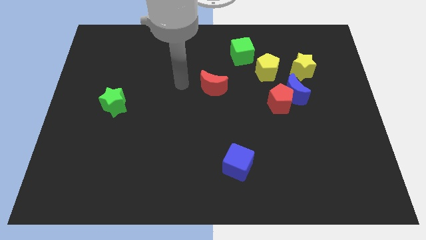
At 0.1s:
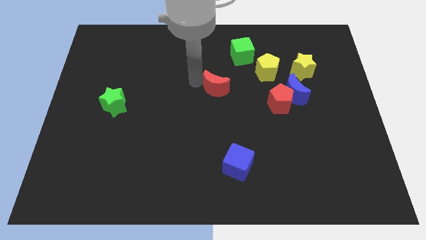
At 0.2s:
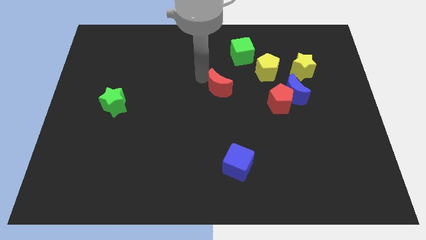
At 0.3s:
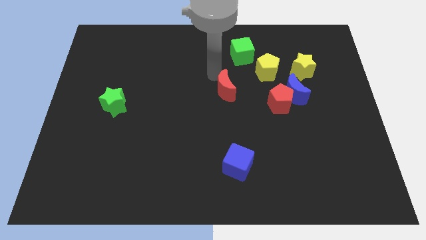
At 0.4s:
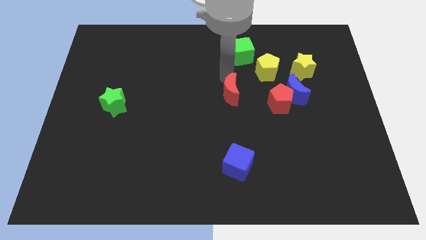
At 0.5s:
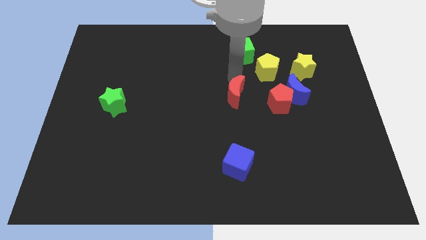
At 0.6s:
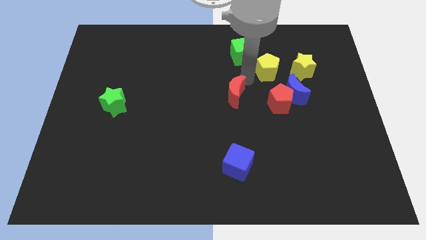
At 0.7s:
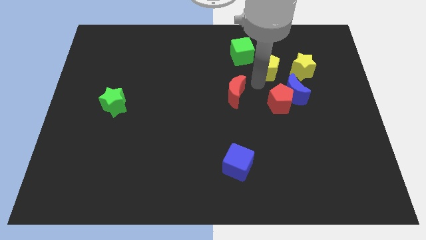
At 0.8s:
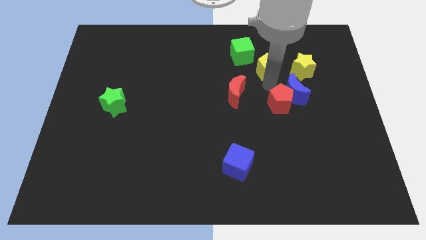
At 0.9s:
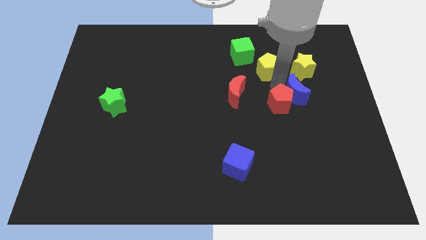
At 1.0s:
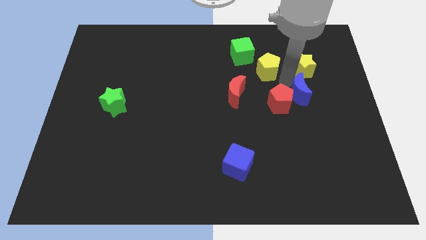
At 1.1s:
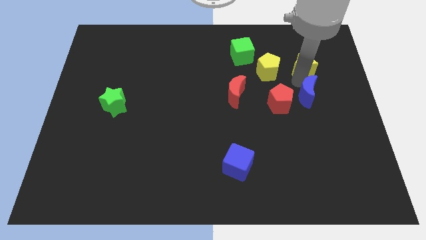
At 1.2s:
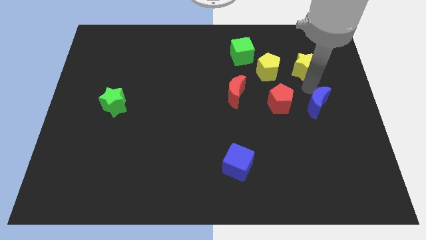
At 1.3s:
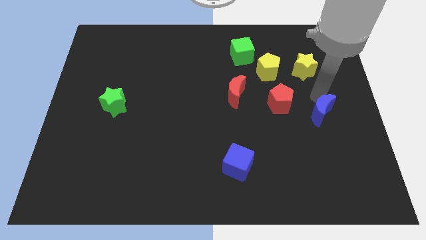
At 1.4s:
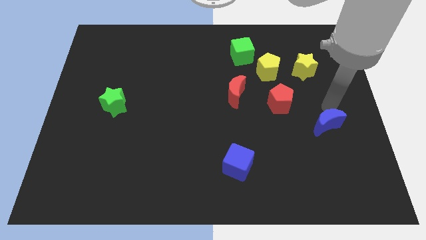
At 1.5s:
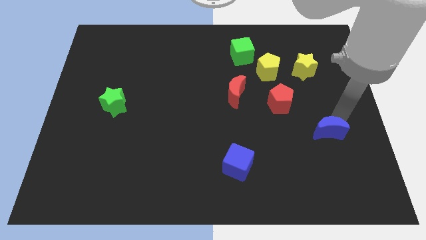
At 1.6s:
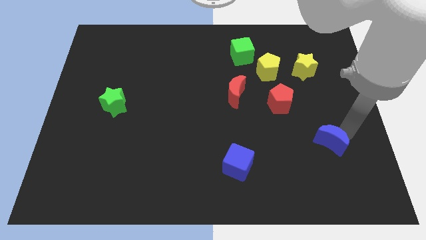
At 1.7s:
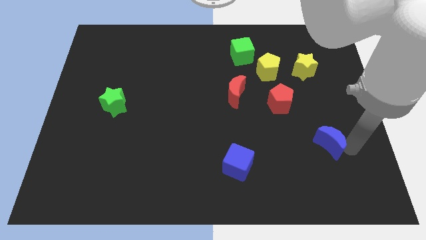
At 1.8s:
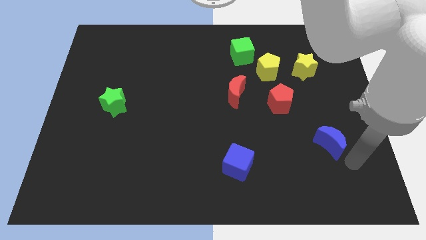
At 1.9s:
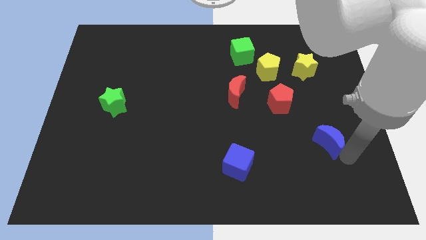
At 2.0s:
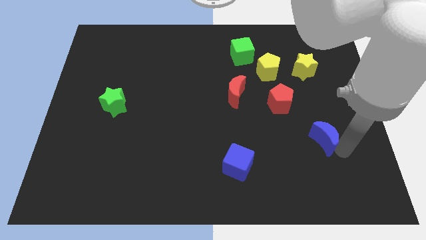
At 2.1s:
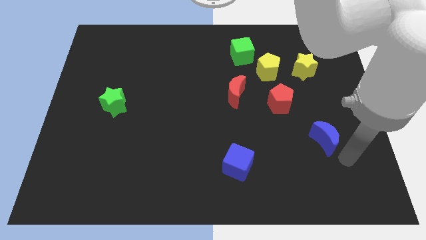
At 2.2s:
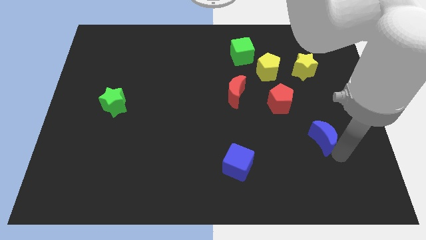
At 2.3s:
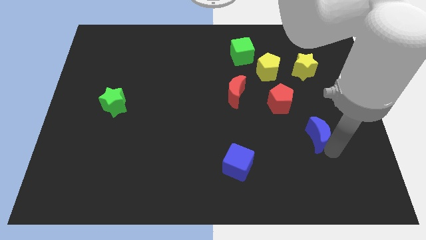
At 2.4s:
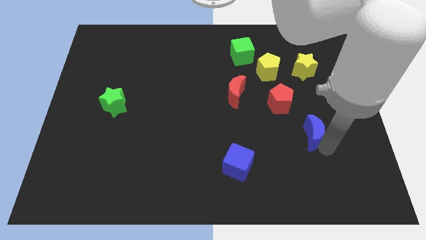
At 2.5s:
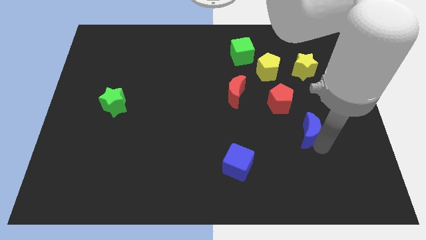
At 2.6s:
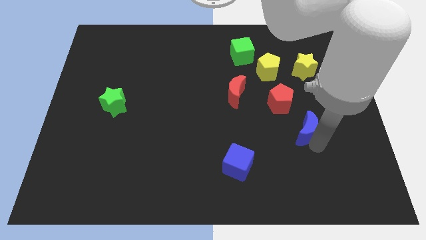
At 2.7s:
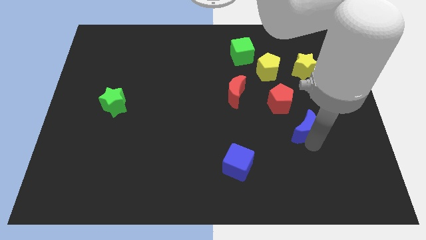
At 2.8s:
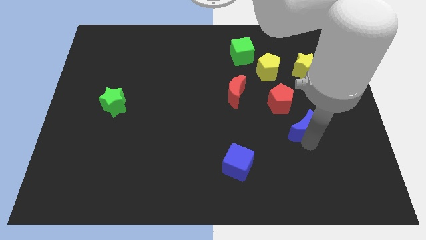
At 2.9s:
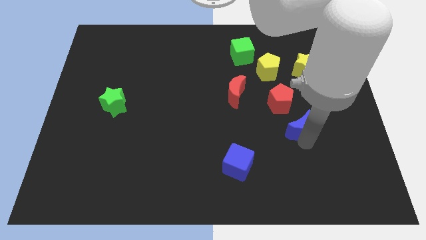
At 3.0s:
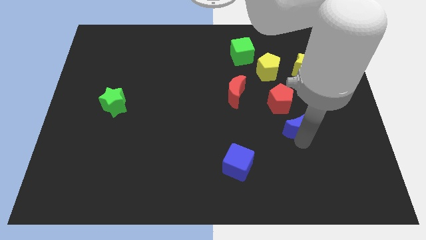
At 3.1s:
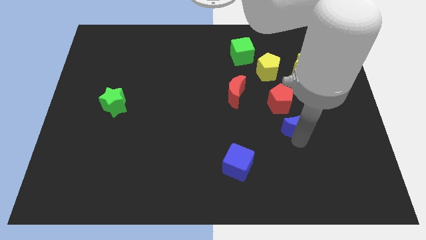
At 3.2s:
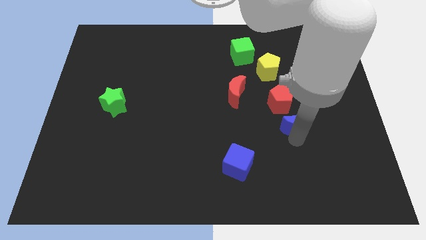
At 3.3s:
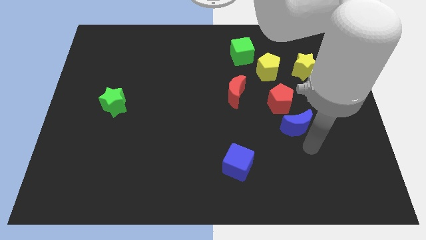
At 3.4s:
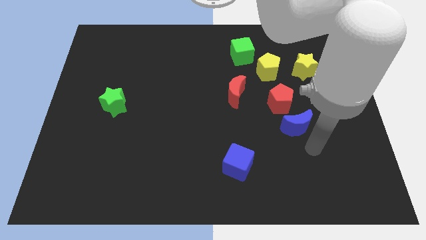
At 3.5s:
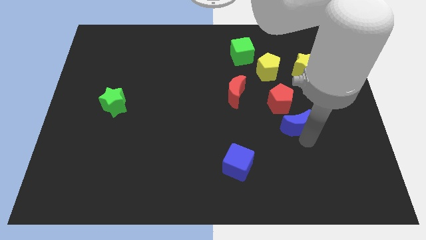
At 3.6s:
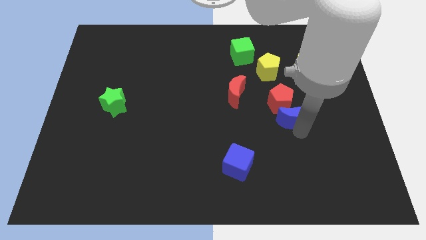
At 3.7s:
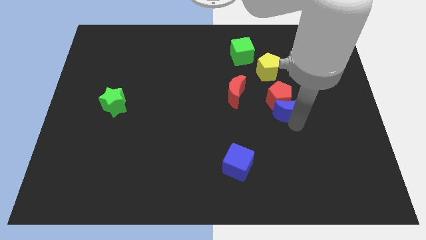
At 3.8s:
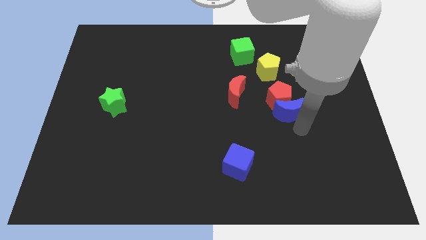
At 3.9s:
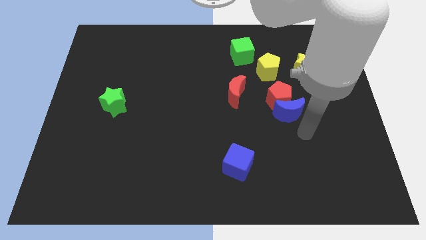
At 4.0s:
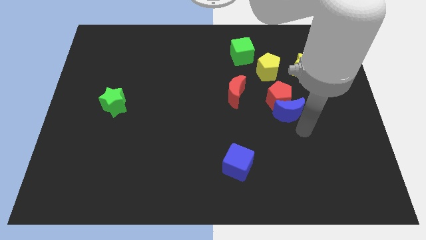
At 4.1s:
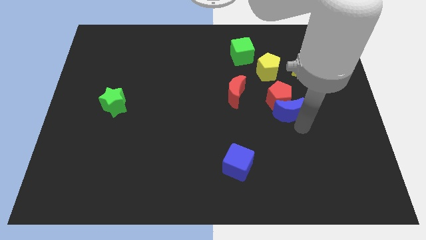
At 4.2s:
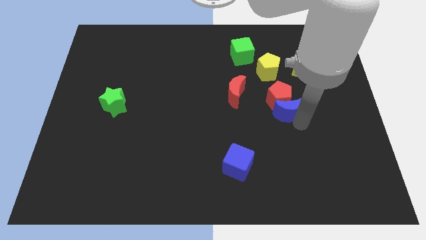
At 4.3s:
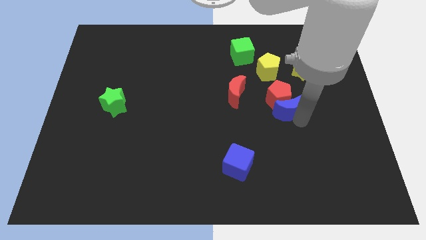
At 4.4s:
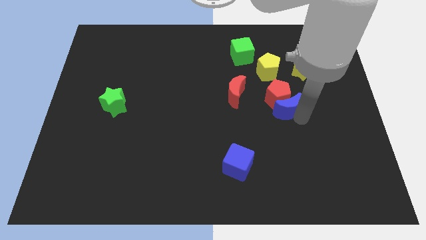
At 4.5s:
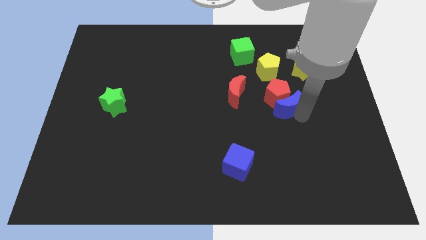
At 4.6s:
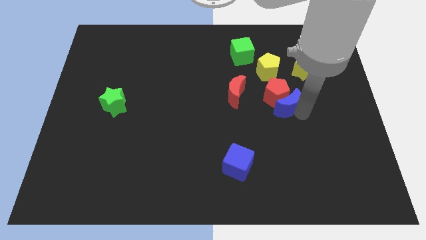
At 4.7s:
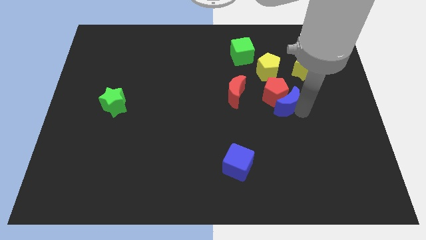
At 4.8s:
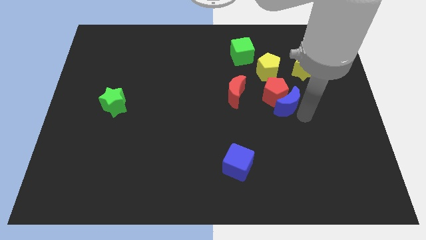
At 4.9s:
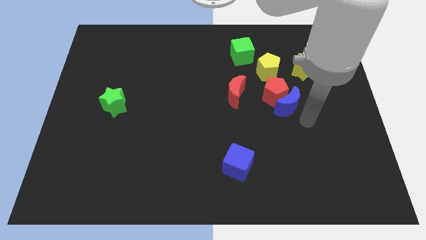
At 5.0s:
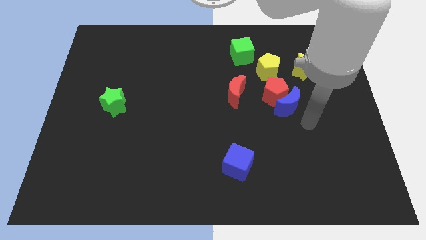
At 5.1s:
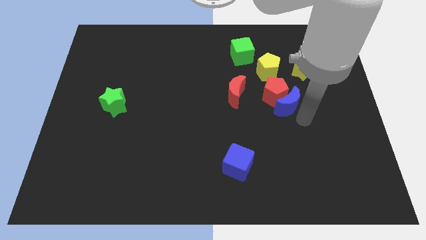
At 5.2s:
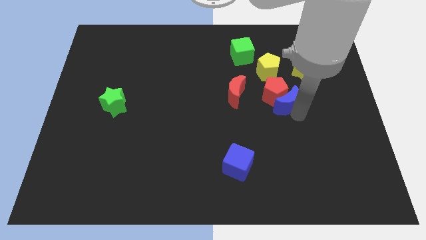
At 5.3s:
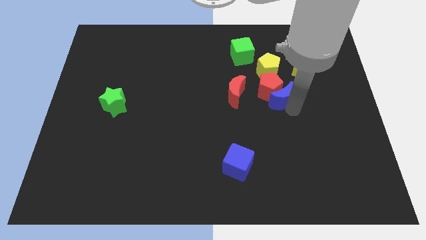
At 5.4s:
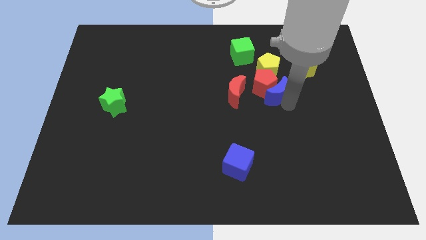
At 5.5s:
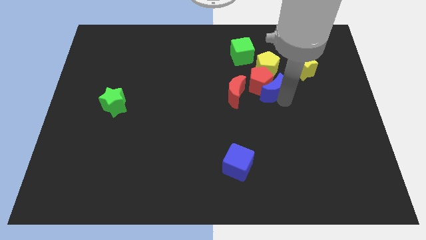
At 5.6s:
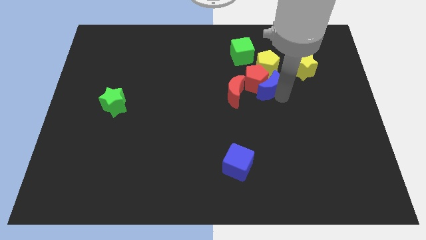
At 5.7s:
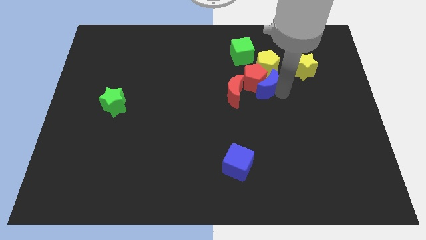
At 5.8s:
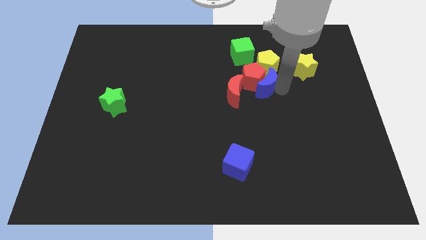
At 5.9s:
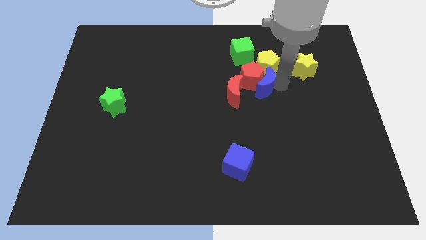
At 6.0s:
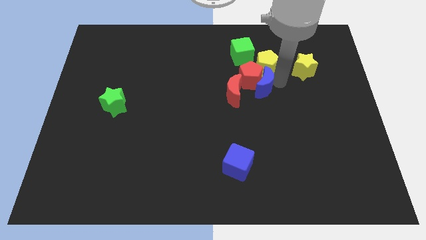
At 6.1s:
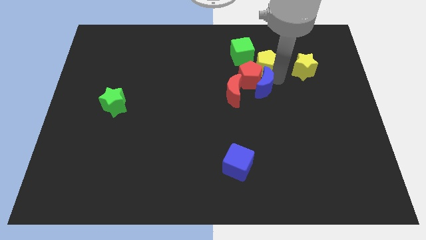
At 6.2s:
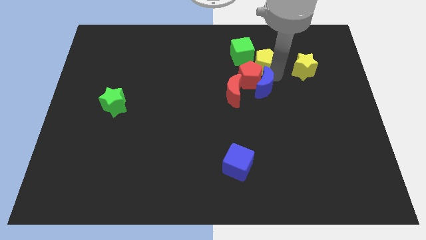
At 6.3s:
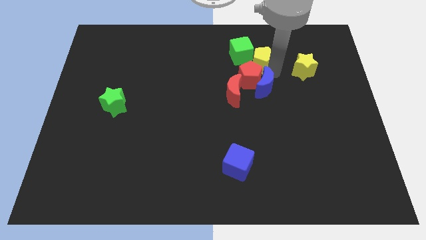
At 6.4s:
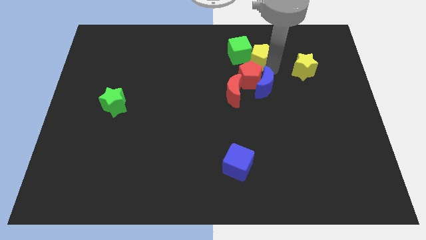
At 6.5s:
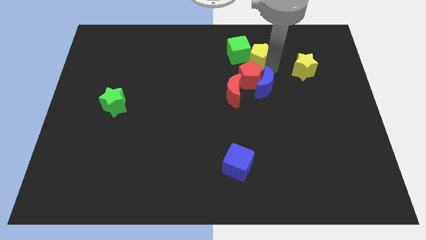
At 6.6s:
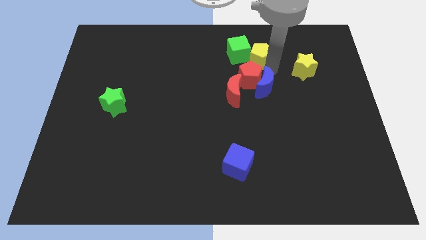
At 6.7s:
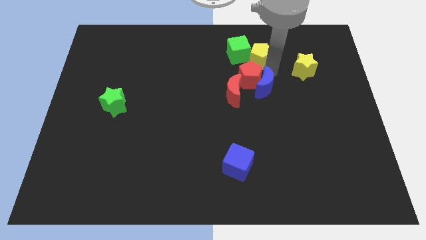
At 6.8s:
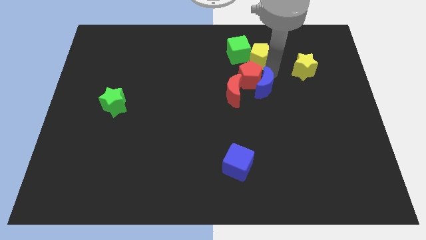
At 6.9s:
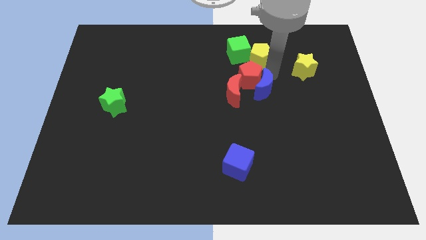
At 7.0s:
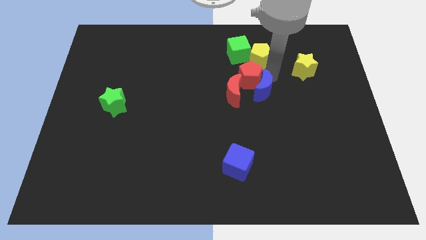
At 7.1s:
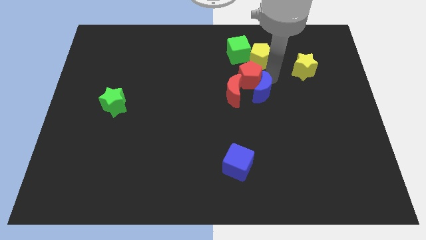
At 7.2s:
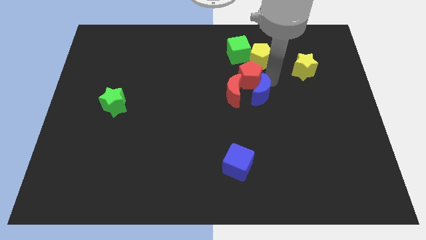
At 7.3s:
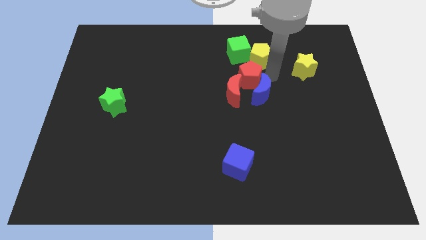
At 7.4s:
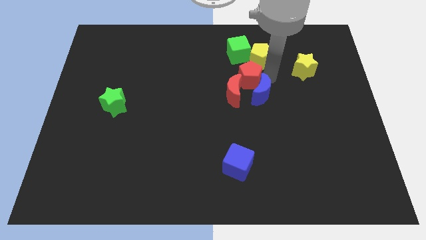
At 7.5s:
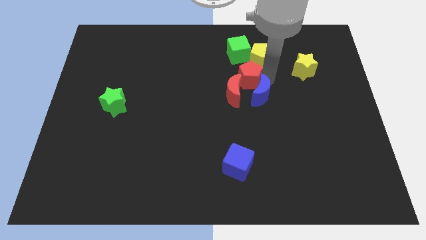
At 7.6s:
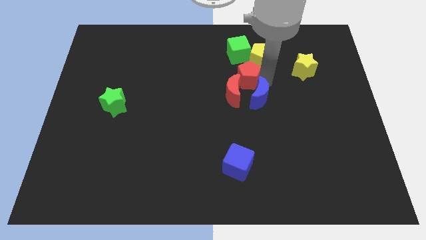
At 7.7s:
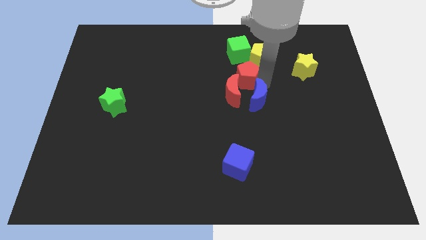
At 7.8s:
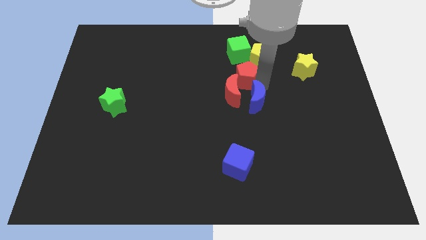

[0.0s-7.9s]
move the blue moon slightly diagonally down and left

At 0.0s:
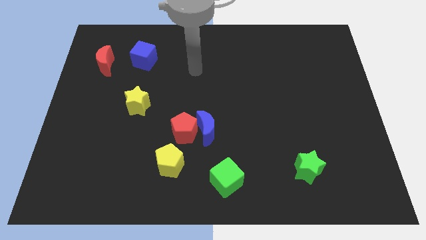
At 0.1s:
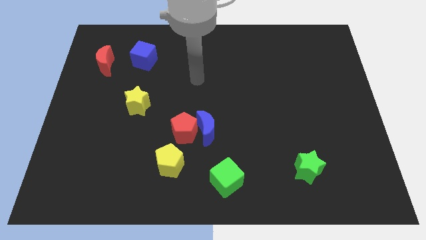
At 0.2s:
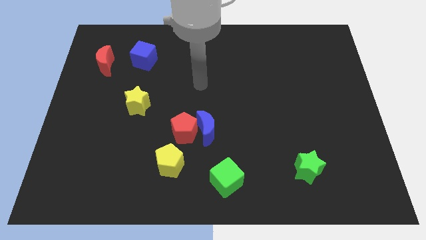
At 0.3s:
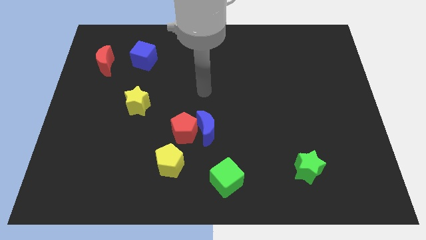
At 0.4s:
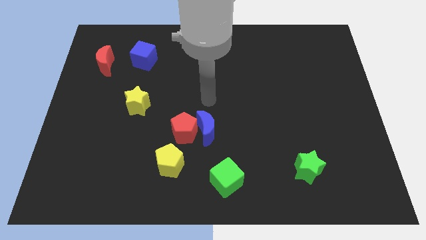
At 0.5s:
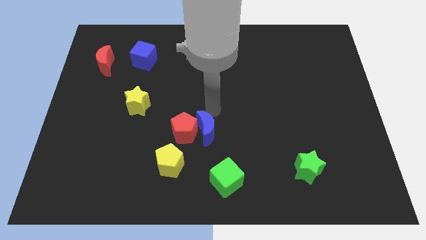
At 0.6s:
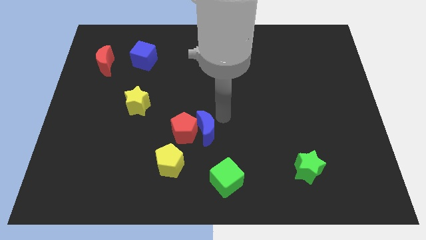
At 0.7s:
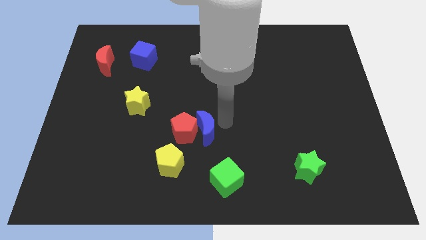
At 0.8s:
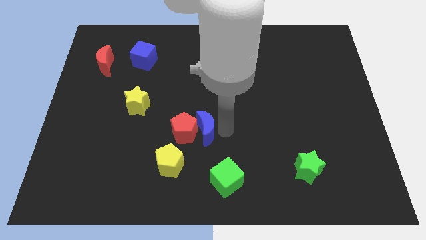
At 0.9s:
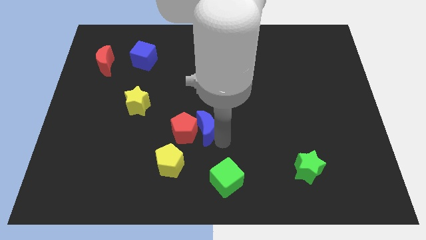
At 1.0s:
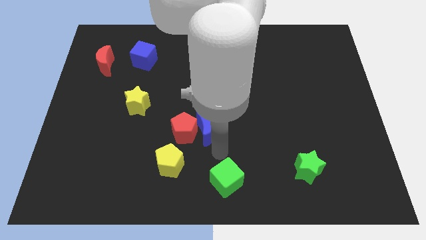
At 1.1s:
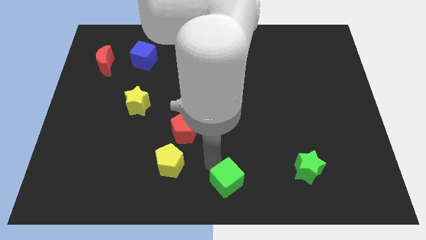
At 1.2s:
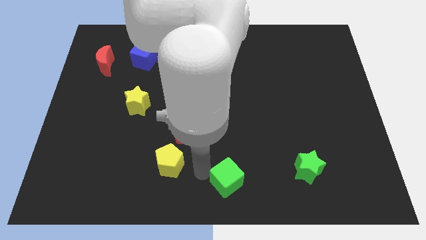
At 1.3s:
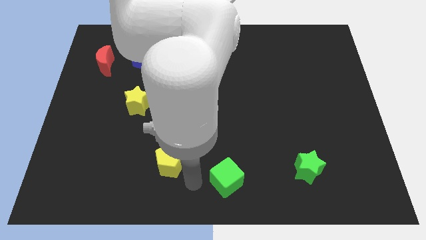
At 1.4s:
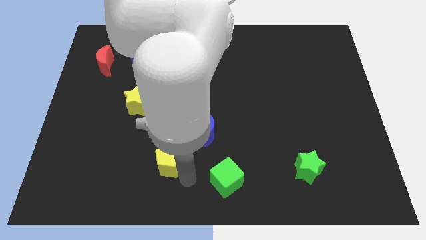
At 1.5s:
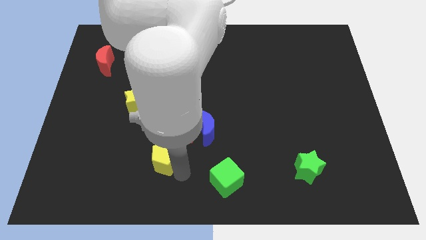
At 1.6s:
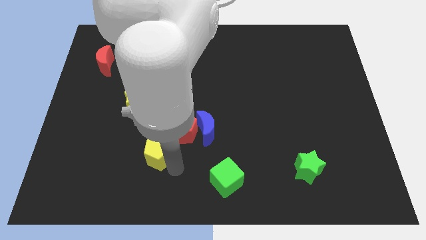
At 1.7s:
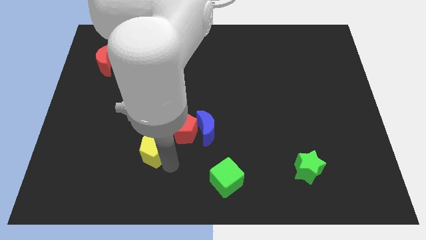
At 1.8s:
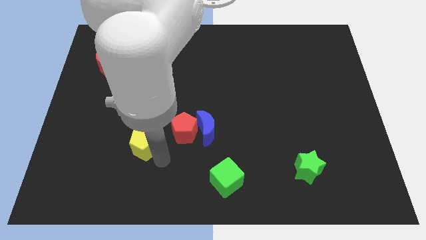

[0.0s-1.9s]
push the yellow pentagon a bit diagonally up and left
